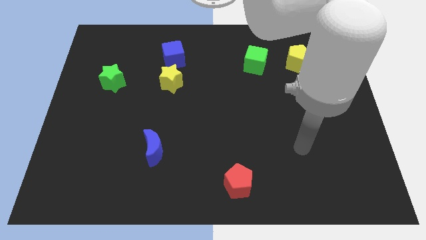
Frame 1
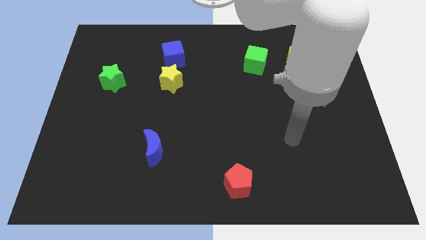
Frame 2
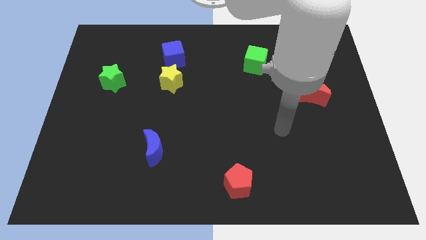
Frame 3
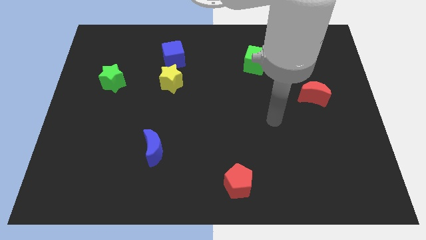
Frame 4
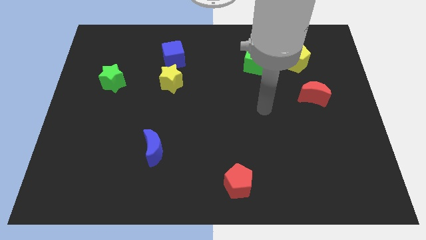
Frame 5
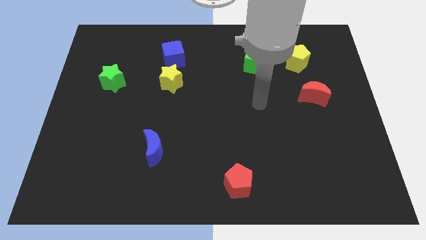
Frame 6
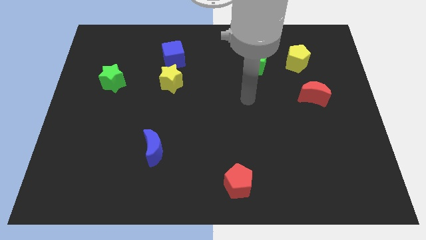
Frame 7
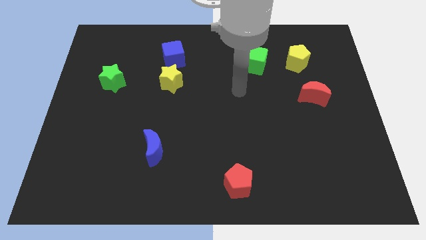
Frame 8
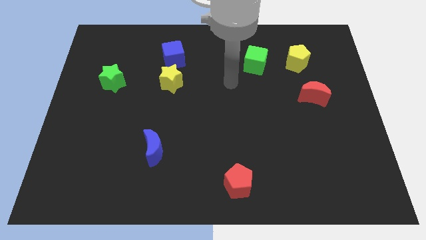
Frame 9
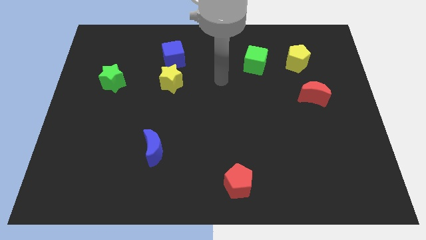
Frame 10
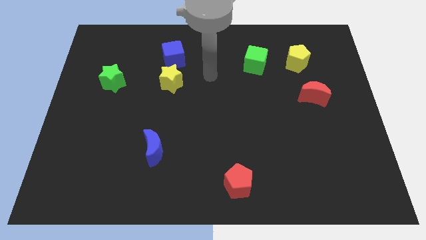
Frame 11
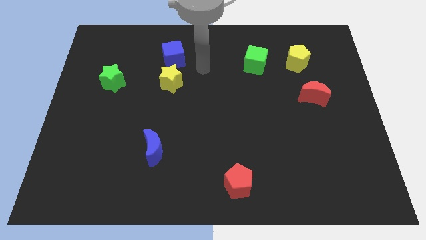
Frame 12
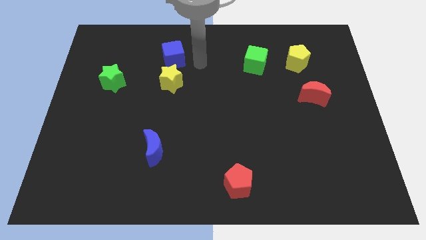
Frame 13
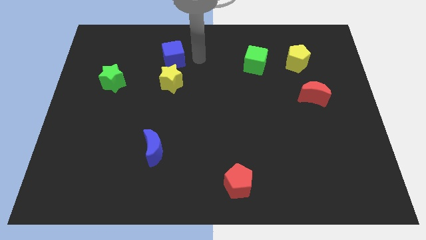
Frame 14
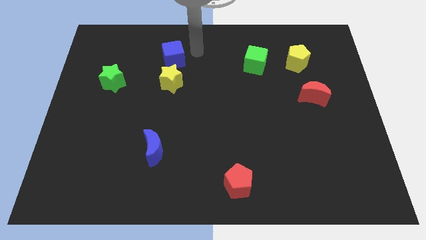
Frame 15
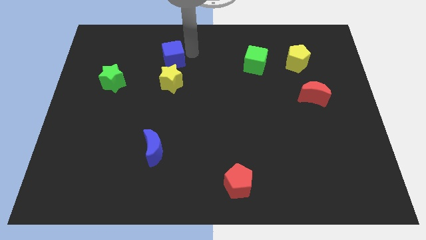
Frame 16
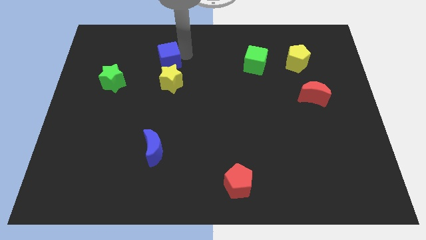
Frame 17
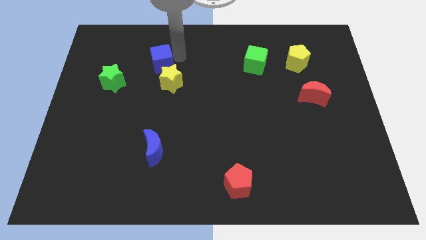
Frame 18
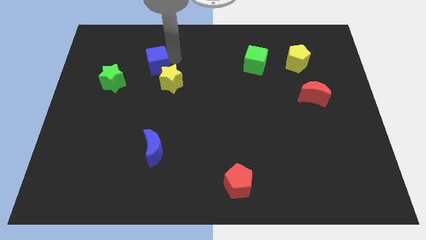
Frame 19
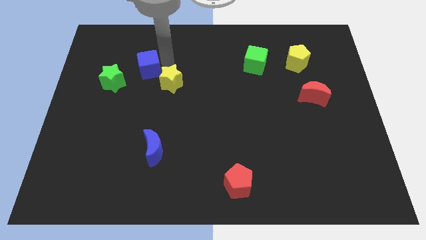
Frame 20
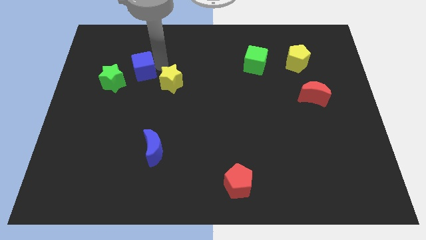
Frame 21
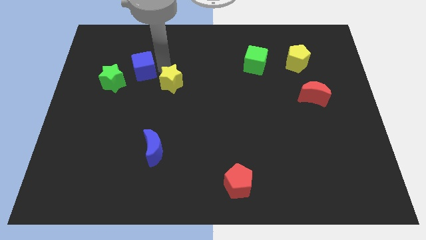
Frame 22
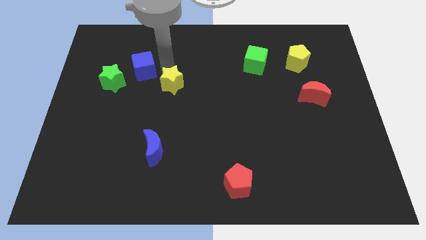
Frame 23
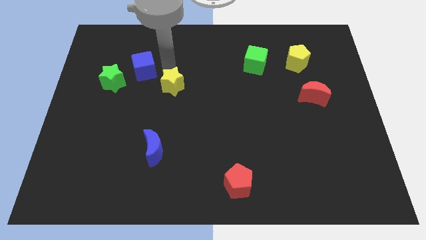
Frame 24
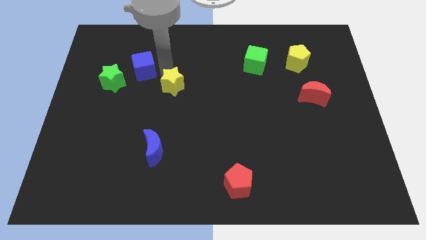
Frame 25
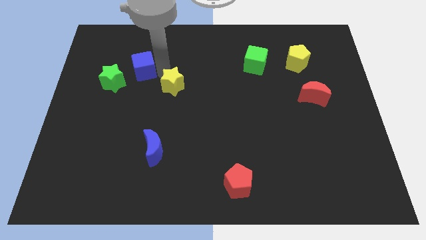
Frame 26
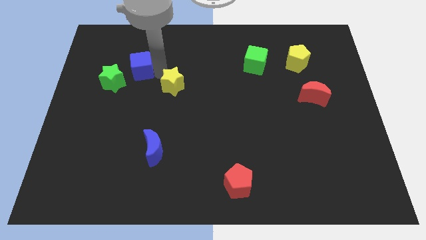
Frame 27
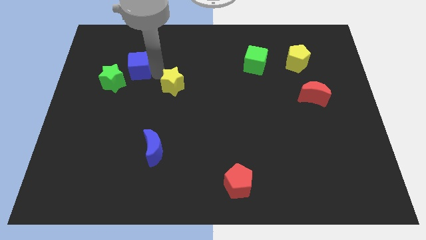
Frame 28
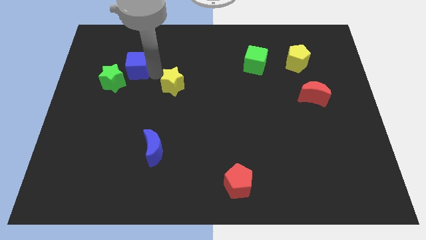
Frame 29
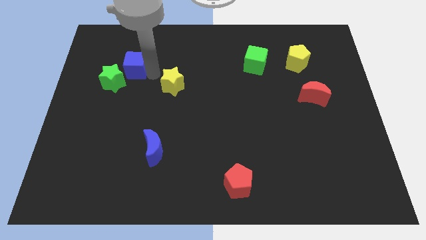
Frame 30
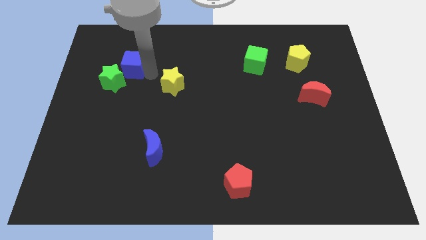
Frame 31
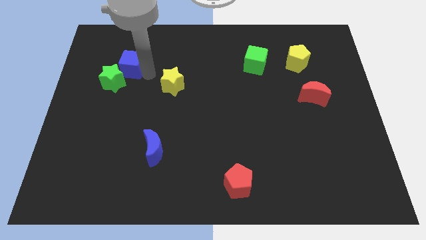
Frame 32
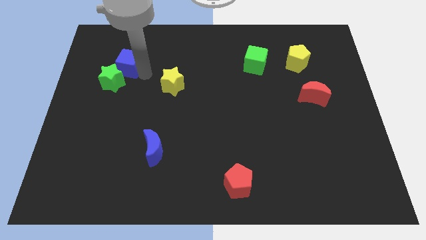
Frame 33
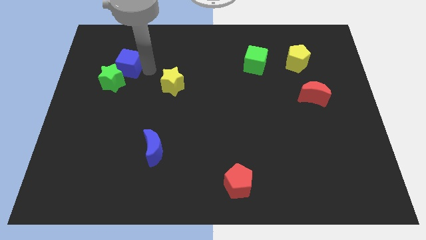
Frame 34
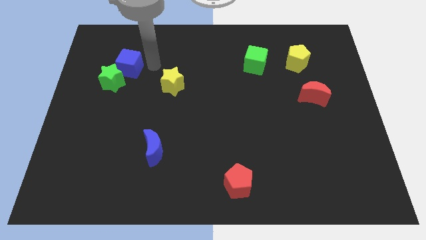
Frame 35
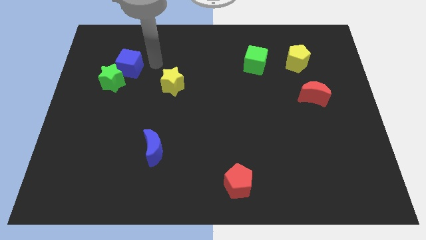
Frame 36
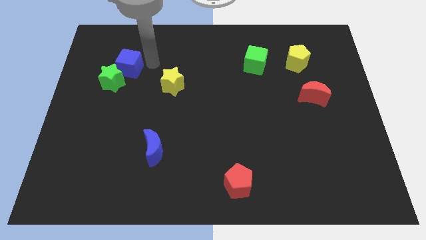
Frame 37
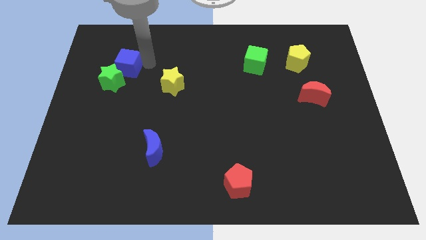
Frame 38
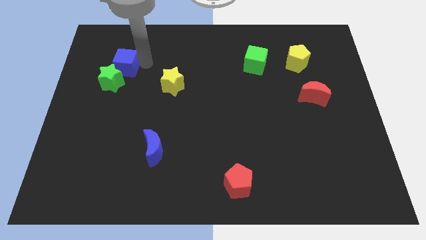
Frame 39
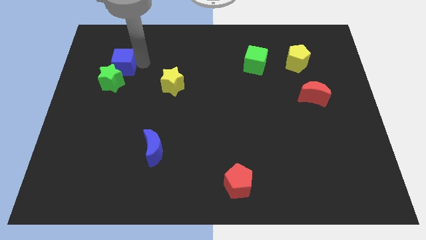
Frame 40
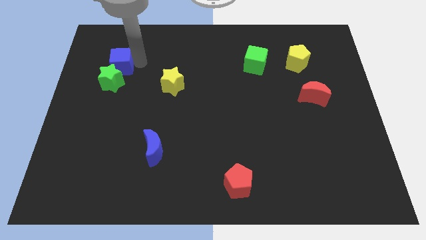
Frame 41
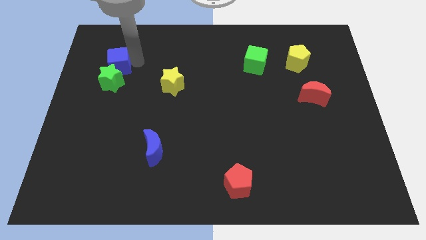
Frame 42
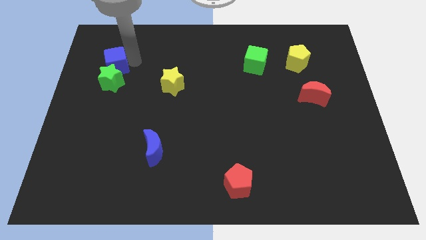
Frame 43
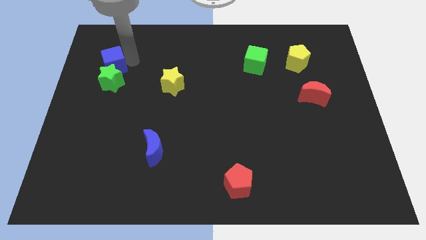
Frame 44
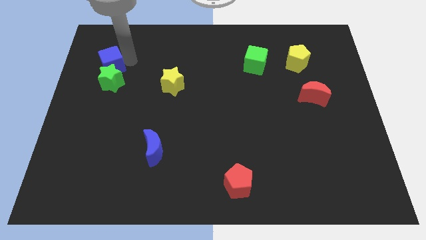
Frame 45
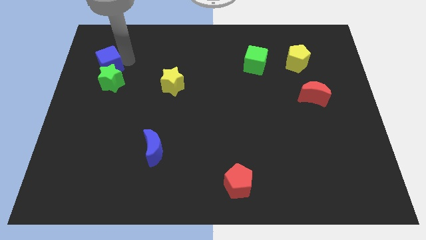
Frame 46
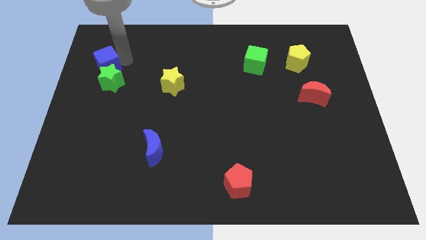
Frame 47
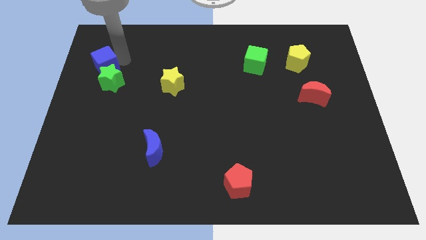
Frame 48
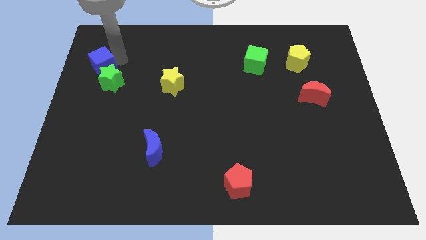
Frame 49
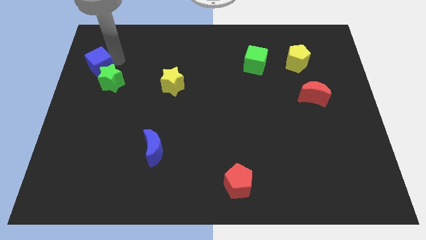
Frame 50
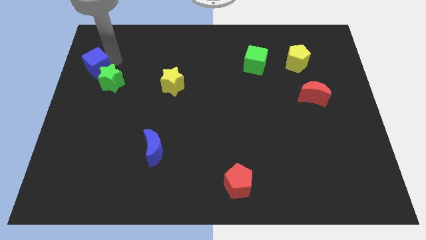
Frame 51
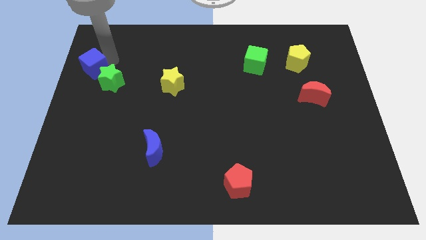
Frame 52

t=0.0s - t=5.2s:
move the blue cube to the left side

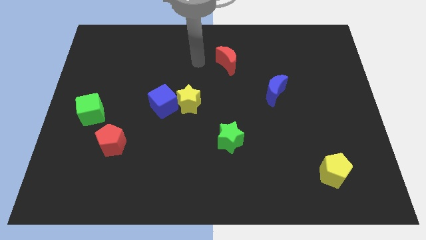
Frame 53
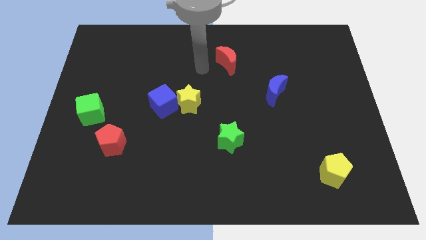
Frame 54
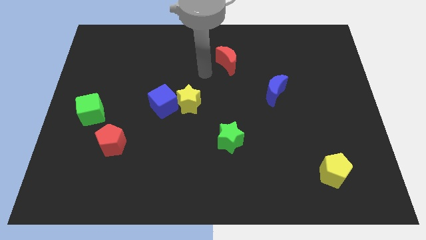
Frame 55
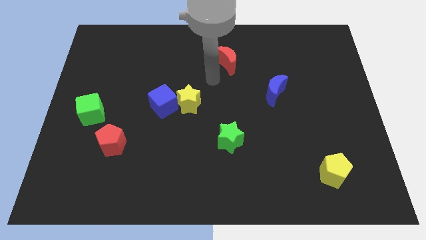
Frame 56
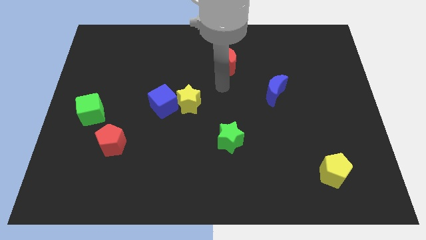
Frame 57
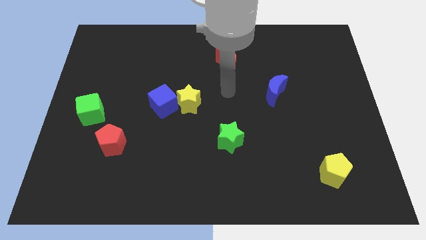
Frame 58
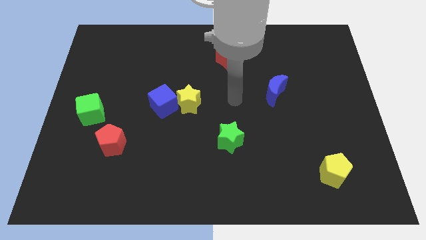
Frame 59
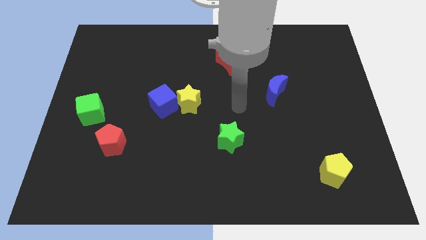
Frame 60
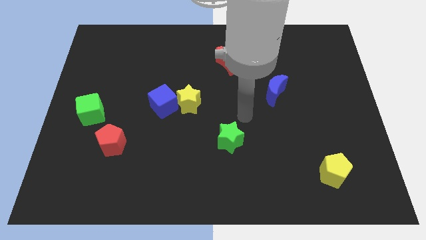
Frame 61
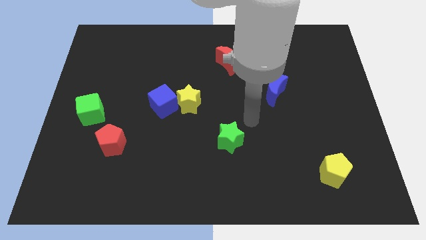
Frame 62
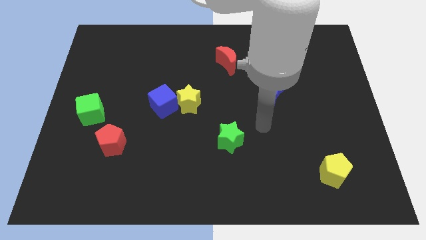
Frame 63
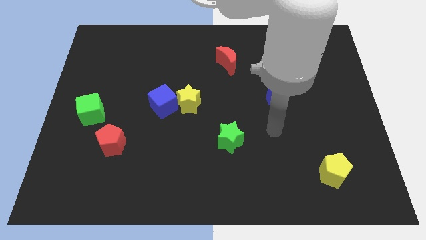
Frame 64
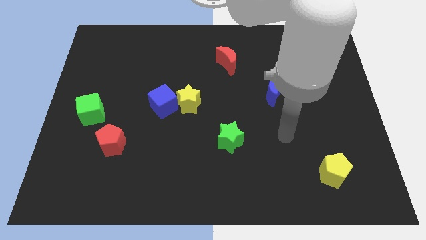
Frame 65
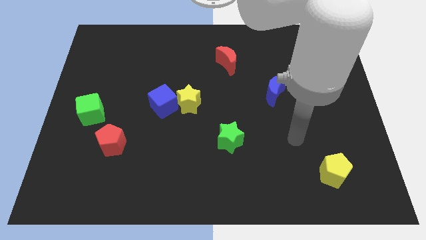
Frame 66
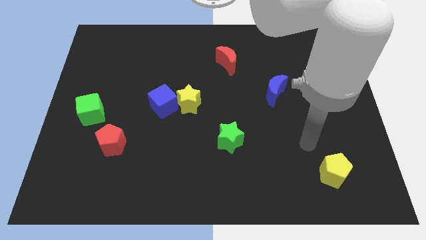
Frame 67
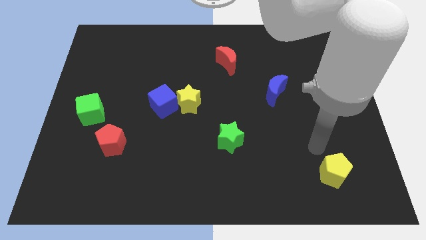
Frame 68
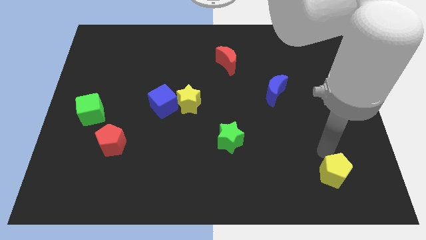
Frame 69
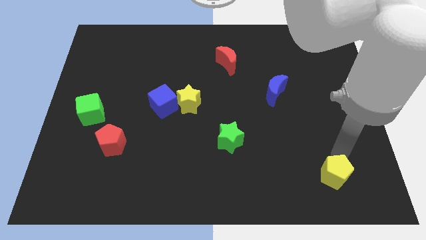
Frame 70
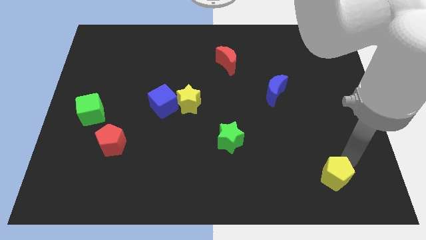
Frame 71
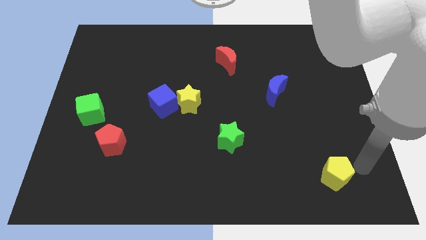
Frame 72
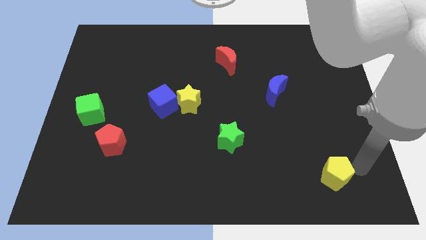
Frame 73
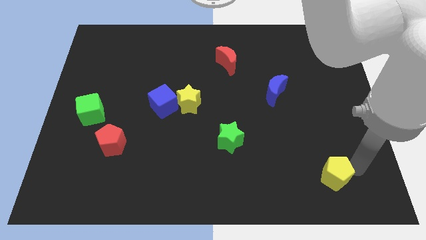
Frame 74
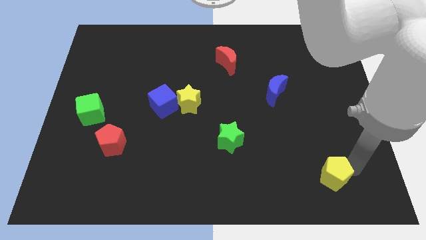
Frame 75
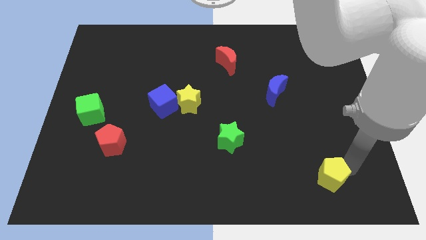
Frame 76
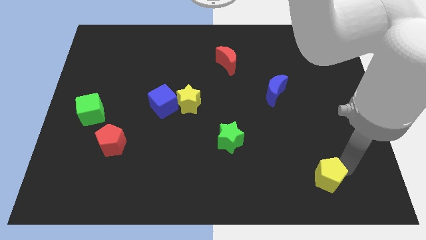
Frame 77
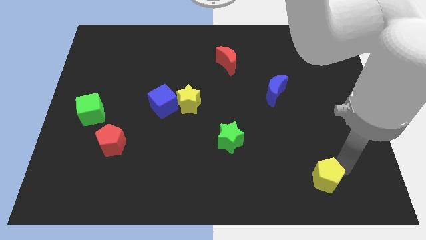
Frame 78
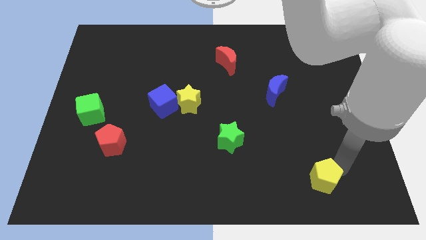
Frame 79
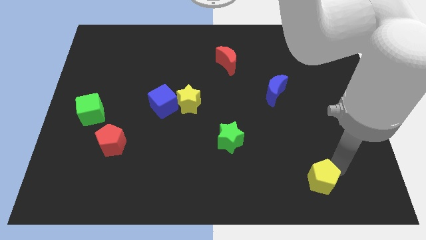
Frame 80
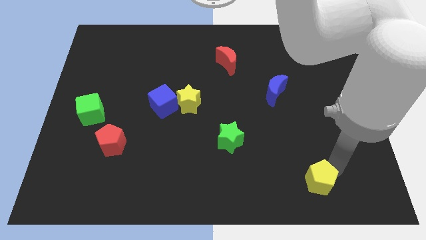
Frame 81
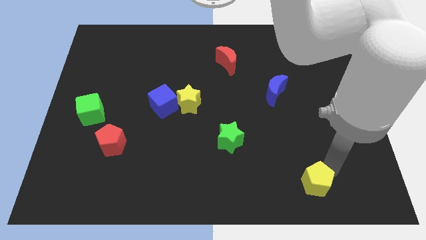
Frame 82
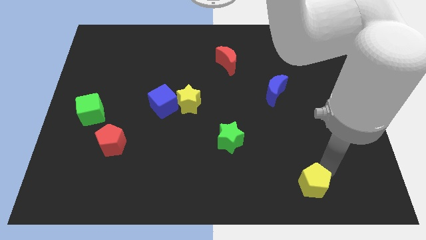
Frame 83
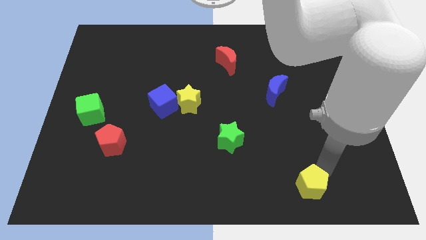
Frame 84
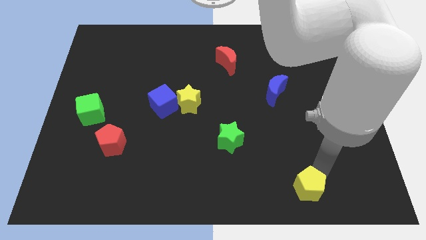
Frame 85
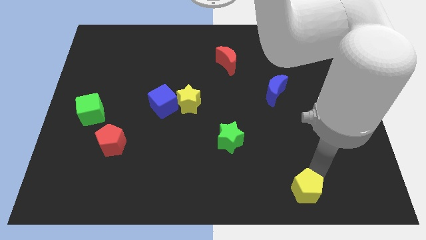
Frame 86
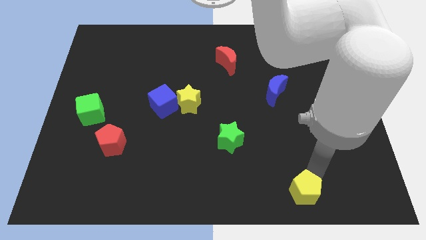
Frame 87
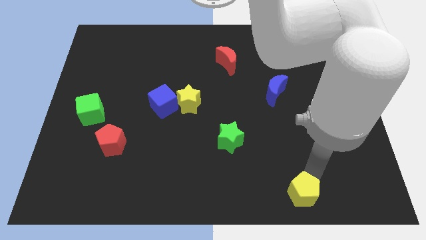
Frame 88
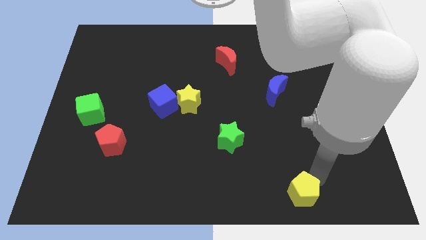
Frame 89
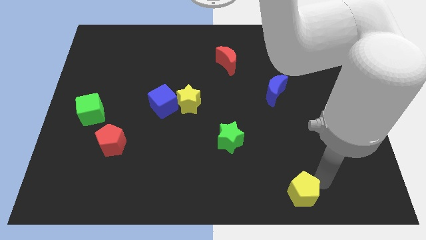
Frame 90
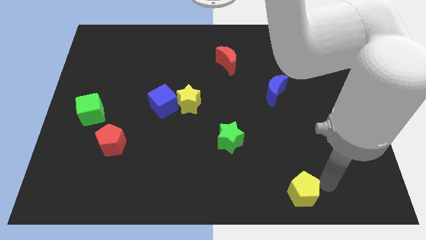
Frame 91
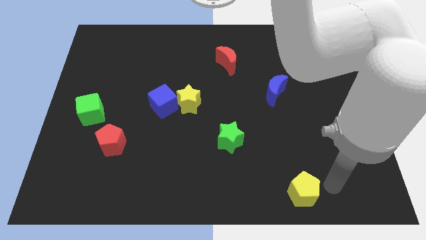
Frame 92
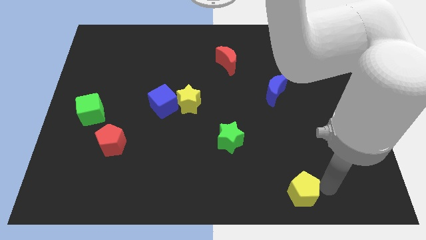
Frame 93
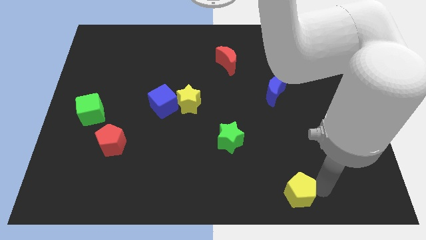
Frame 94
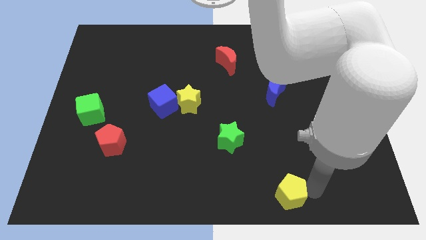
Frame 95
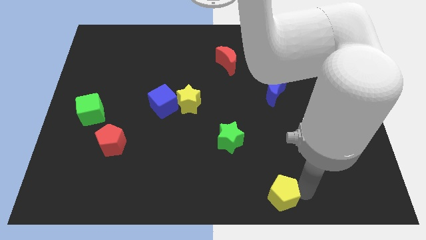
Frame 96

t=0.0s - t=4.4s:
put the yellow pentagon to the bottom
